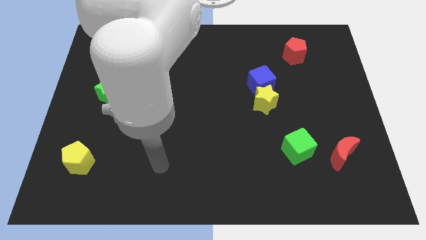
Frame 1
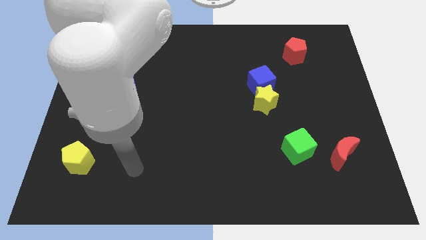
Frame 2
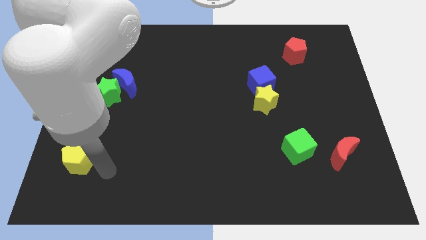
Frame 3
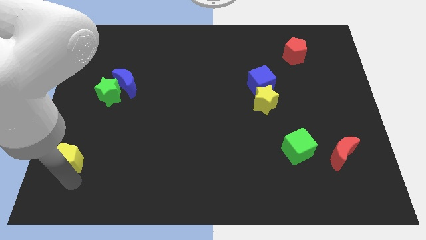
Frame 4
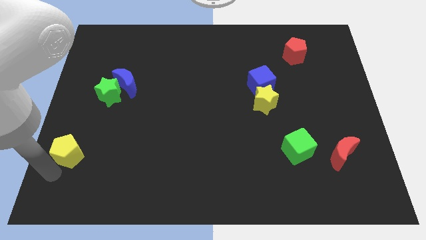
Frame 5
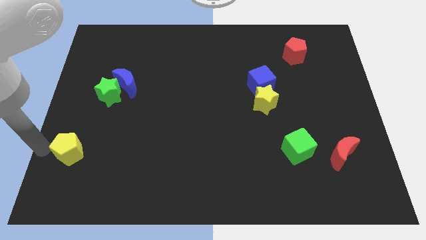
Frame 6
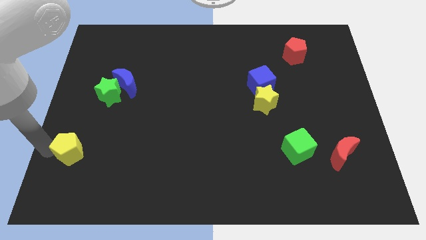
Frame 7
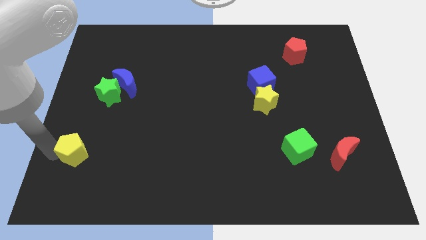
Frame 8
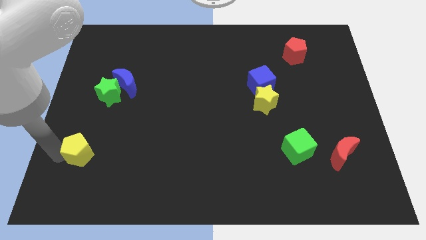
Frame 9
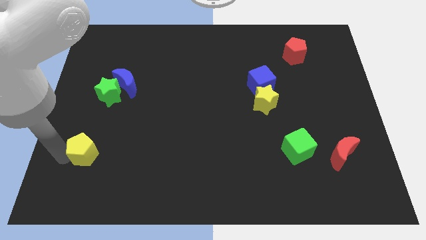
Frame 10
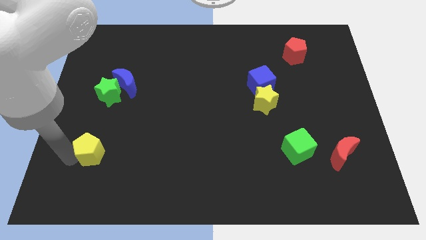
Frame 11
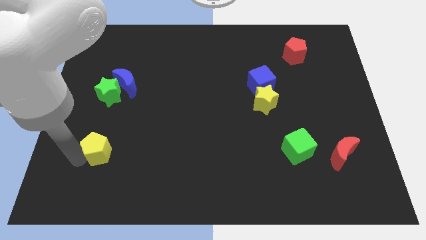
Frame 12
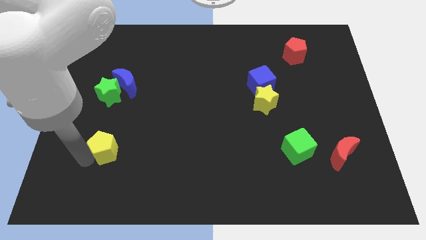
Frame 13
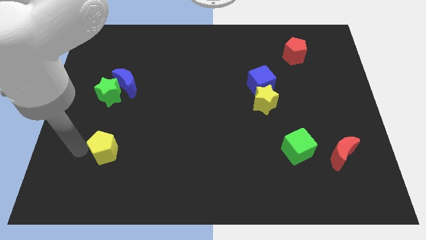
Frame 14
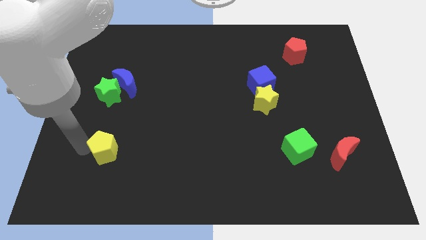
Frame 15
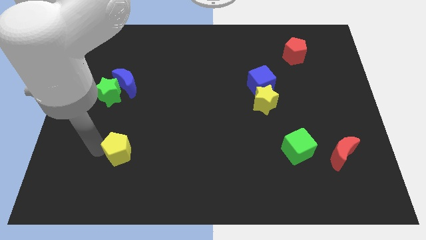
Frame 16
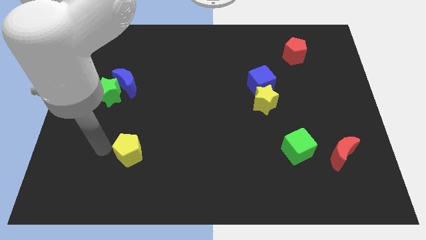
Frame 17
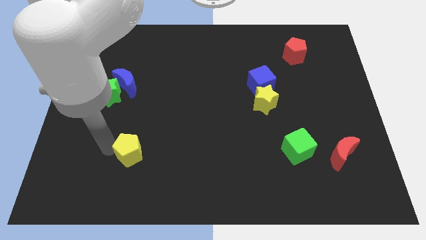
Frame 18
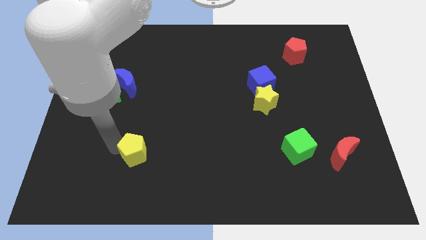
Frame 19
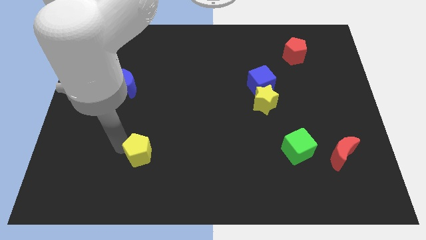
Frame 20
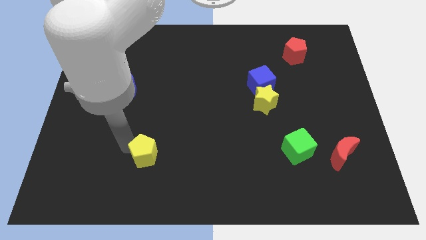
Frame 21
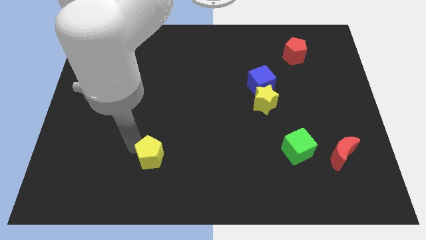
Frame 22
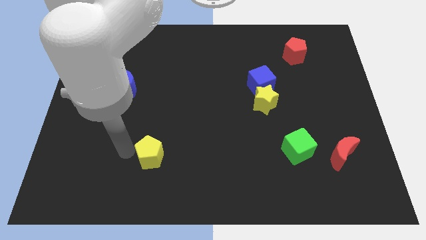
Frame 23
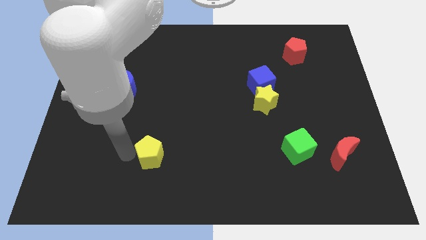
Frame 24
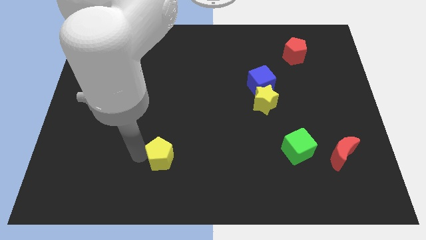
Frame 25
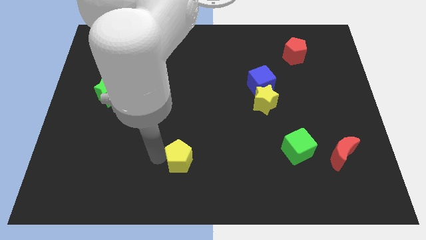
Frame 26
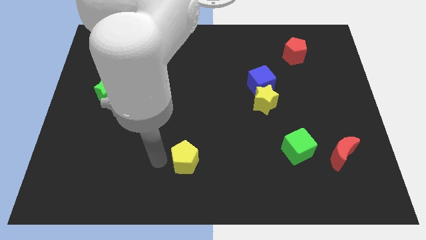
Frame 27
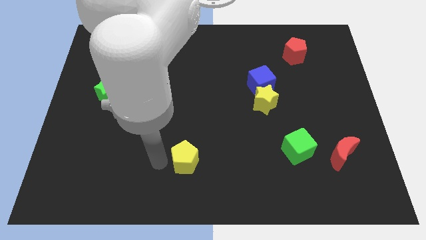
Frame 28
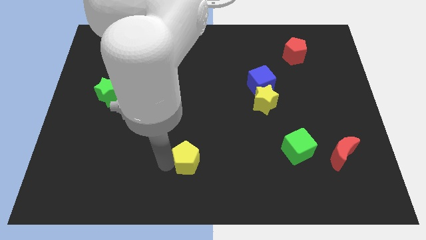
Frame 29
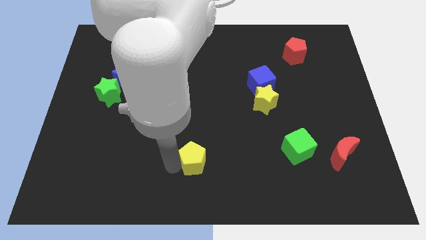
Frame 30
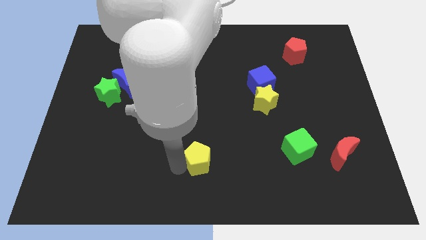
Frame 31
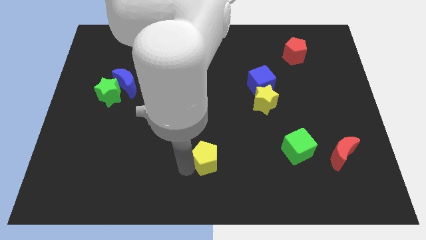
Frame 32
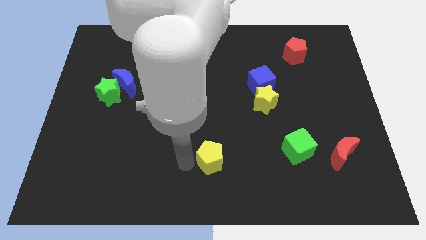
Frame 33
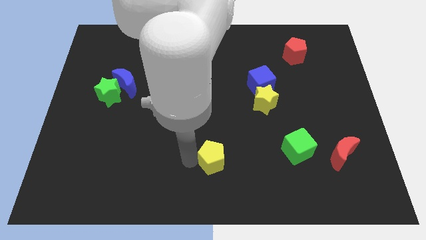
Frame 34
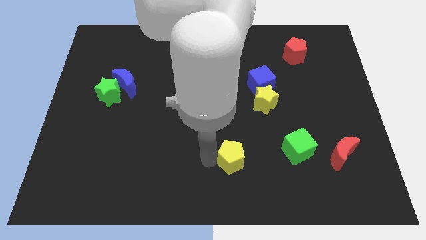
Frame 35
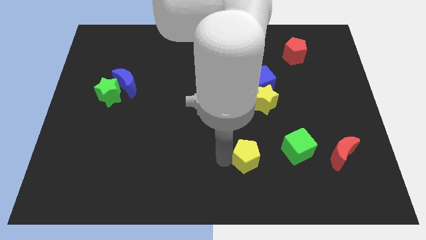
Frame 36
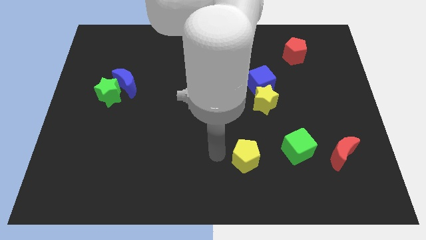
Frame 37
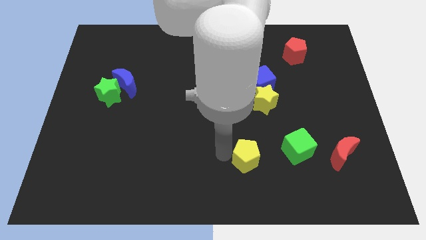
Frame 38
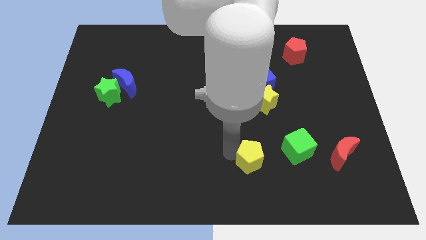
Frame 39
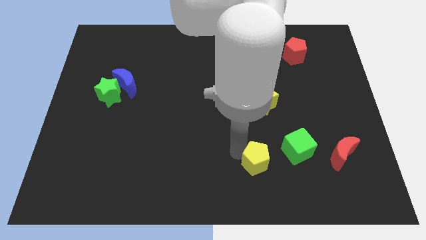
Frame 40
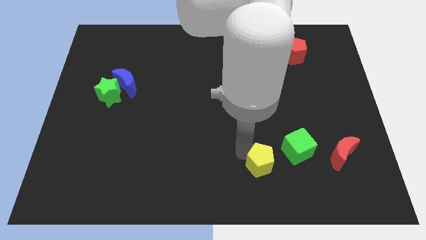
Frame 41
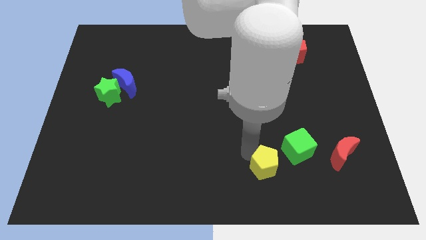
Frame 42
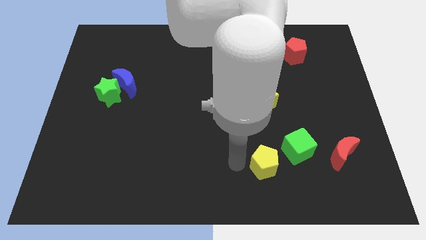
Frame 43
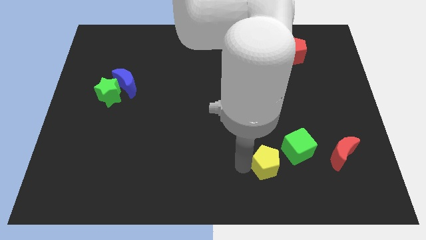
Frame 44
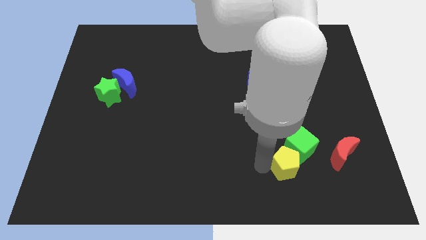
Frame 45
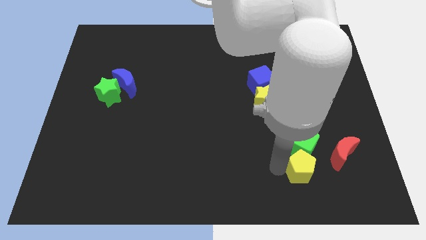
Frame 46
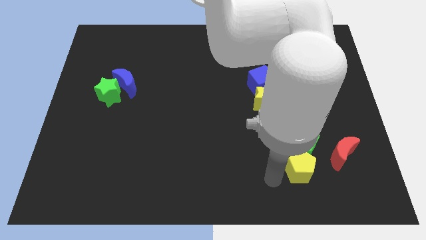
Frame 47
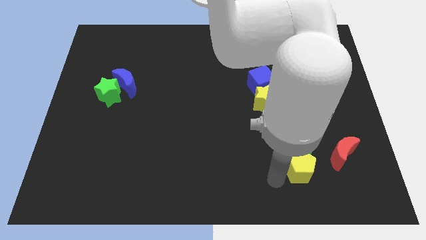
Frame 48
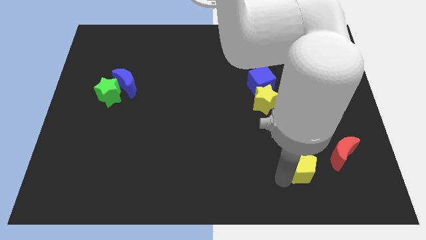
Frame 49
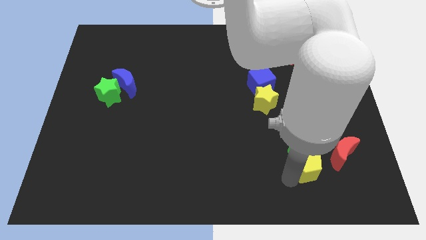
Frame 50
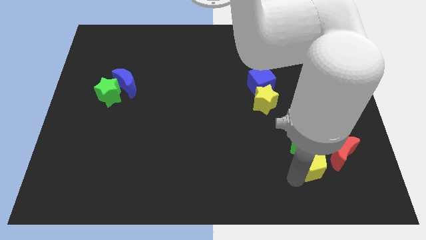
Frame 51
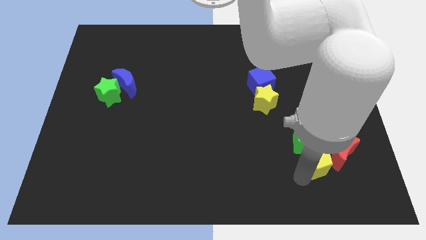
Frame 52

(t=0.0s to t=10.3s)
move the yellow pentagon towards the red moon

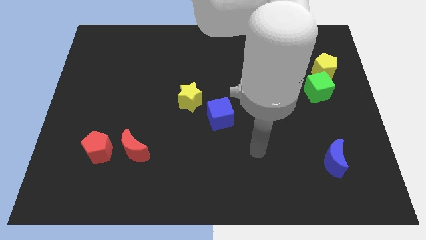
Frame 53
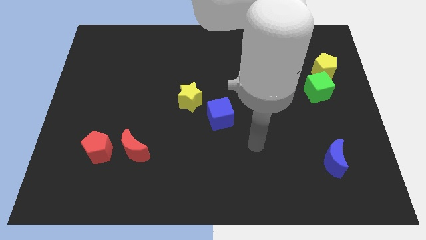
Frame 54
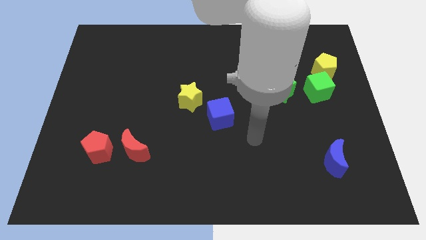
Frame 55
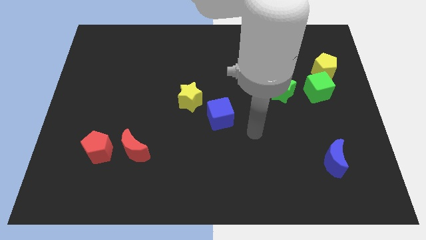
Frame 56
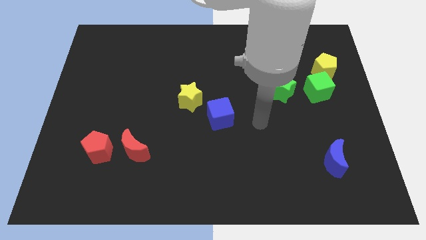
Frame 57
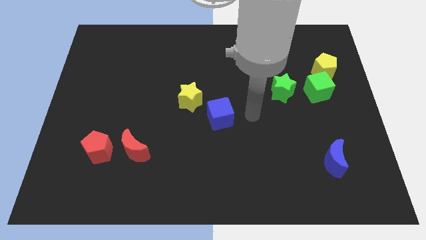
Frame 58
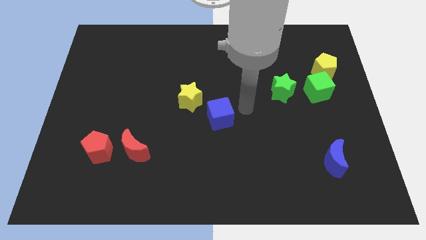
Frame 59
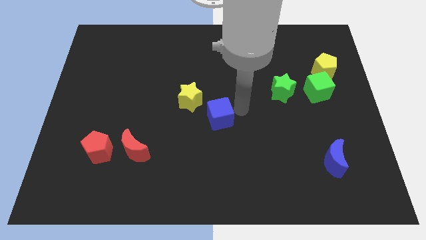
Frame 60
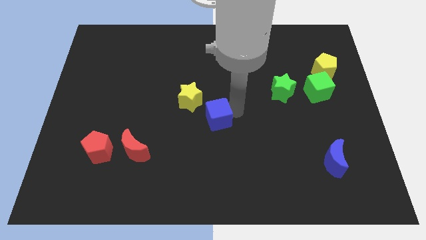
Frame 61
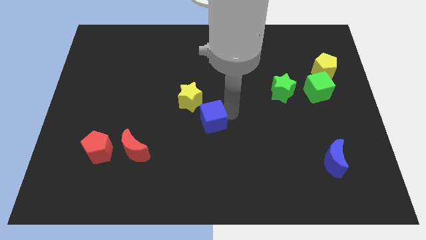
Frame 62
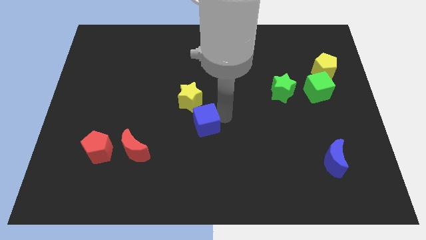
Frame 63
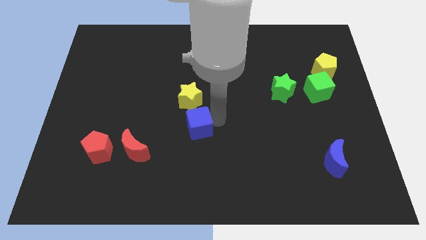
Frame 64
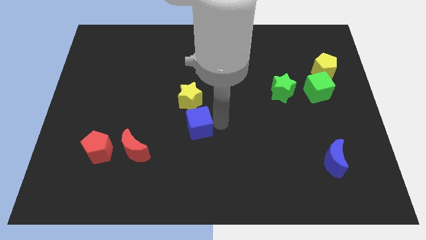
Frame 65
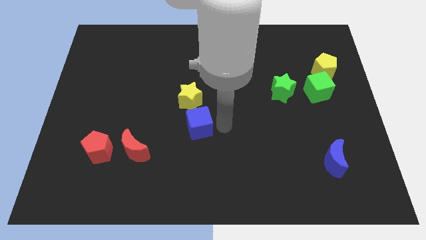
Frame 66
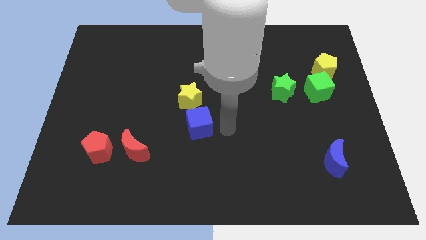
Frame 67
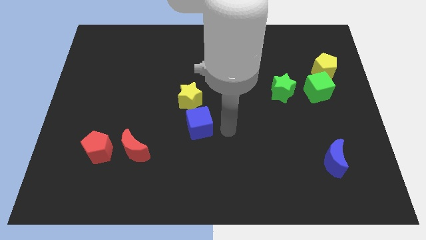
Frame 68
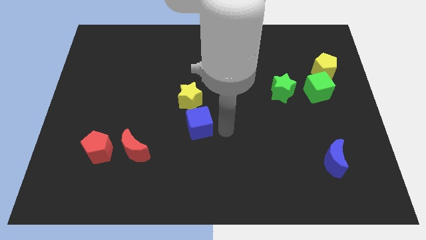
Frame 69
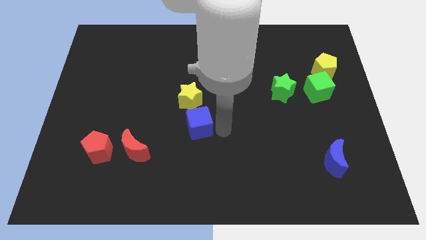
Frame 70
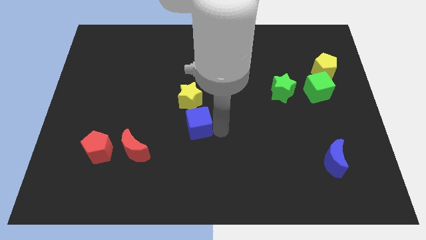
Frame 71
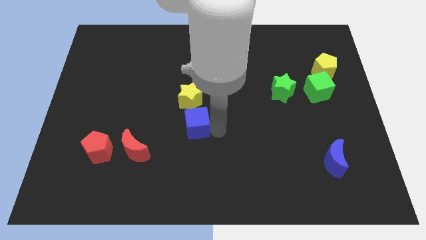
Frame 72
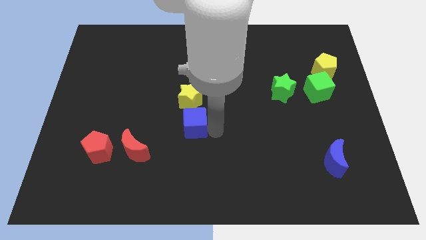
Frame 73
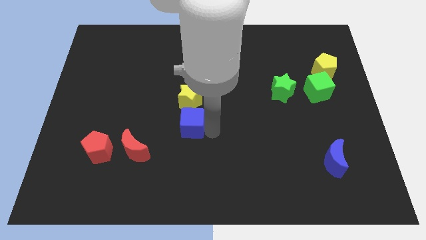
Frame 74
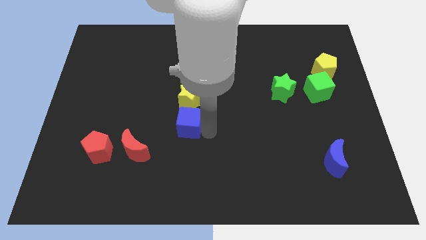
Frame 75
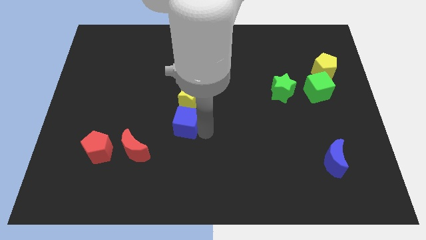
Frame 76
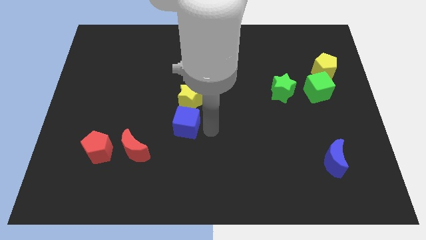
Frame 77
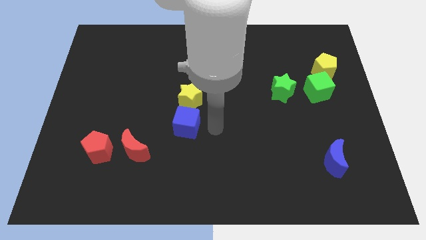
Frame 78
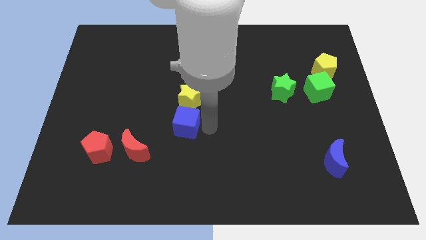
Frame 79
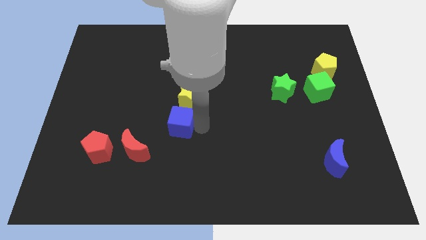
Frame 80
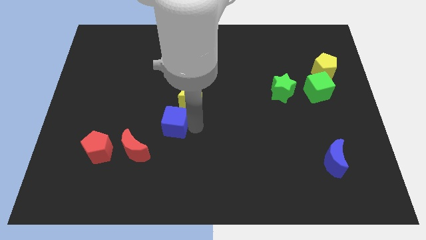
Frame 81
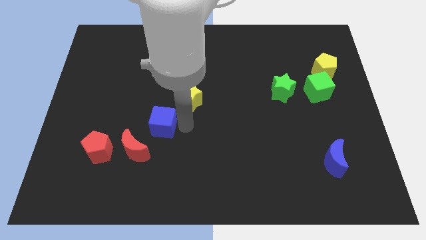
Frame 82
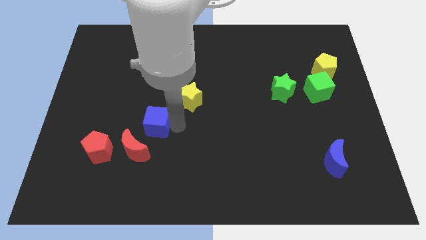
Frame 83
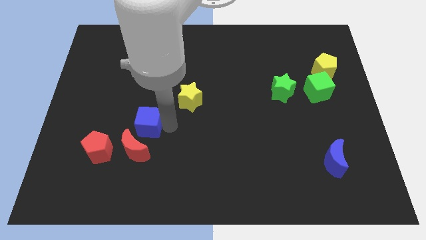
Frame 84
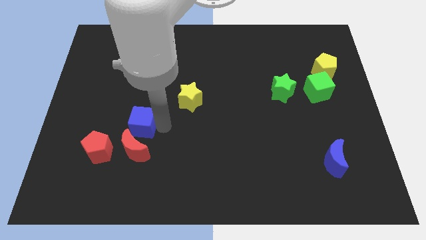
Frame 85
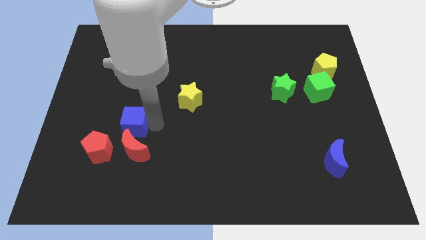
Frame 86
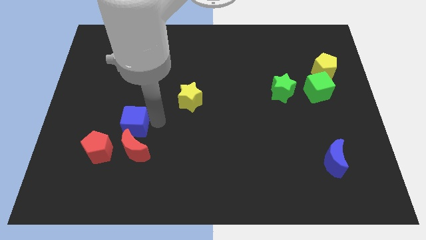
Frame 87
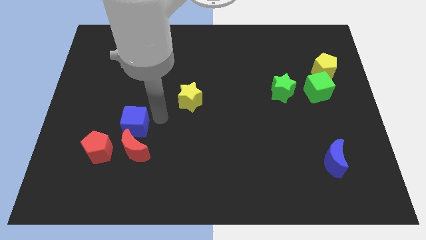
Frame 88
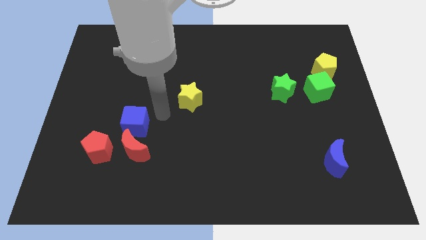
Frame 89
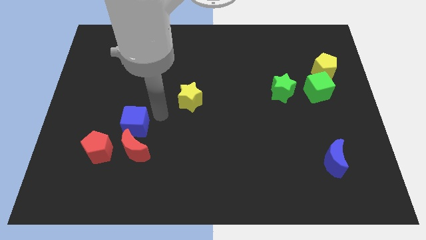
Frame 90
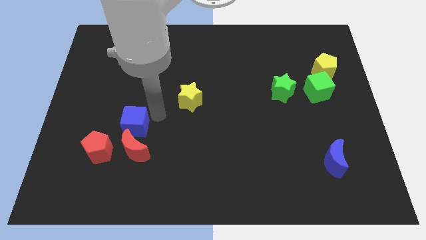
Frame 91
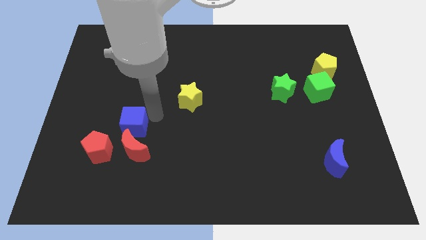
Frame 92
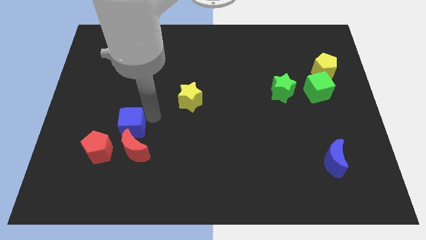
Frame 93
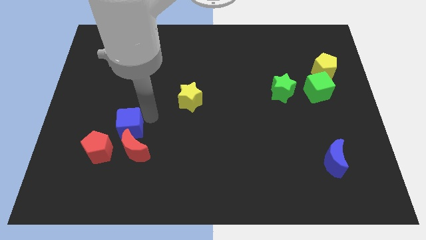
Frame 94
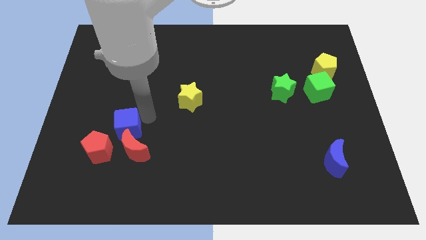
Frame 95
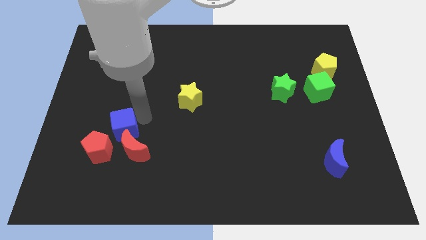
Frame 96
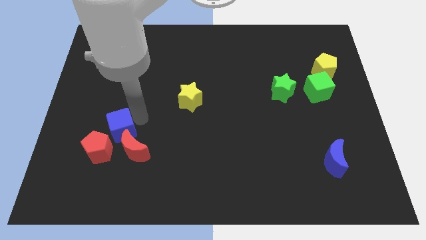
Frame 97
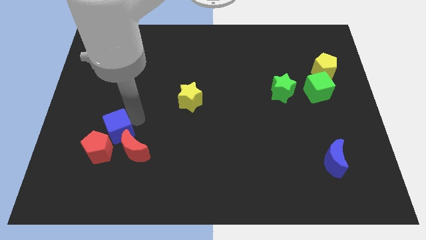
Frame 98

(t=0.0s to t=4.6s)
slide the blue cube next to the red pentagon
